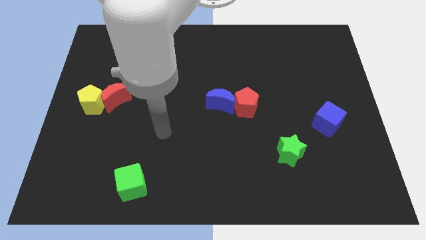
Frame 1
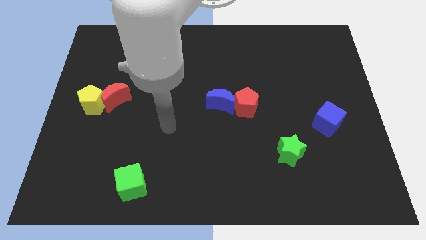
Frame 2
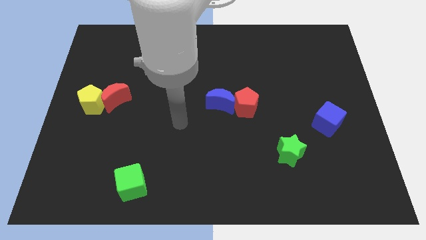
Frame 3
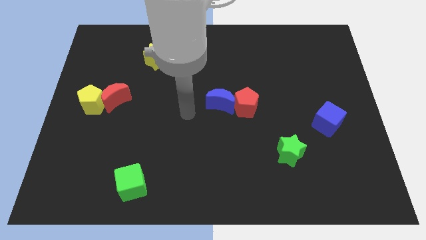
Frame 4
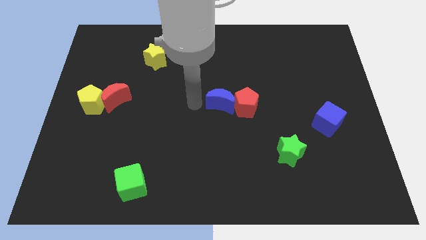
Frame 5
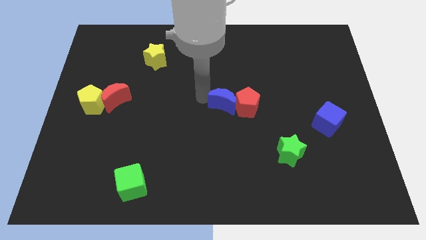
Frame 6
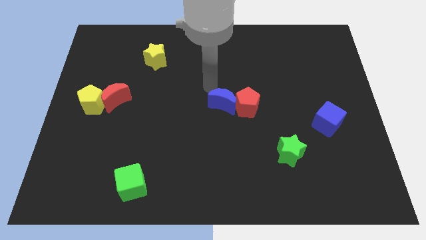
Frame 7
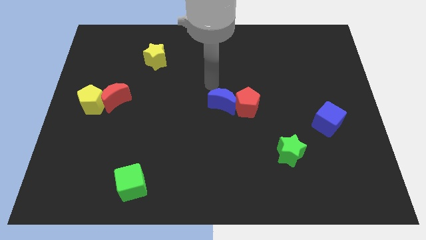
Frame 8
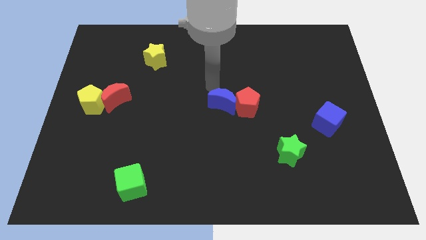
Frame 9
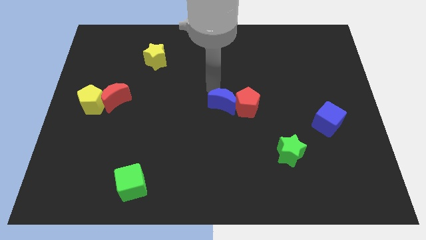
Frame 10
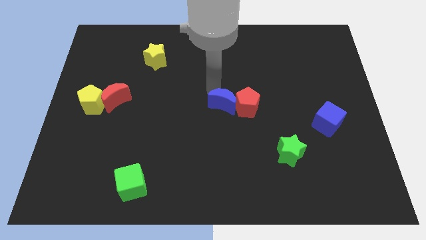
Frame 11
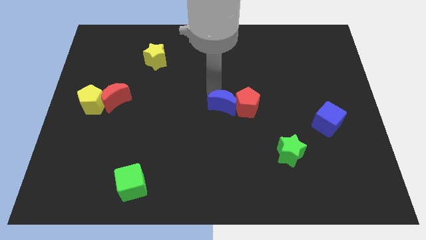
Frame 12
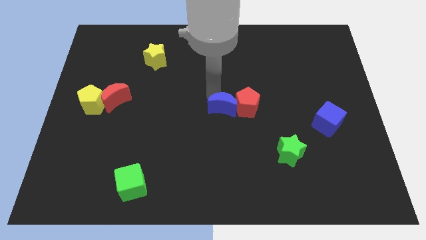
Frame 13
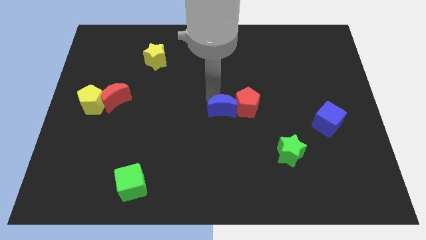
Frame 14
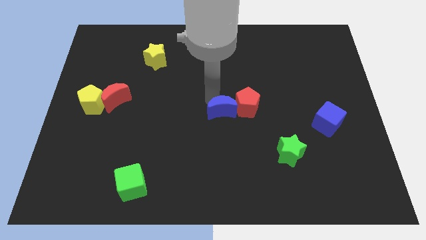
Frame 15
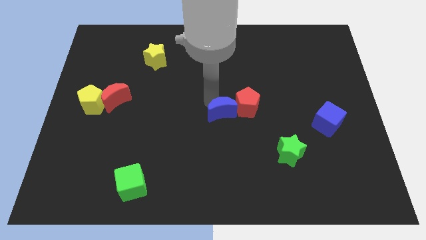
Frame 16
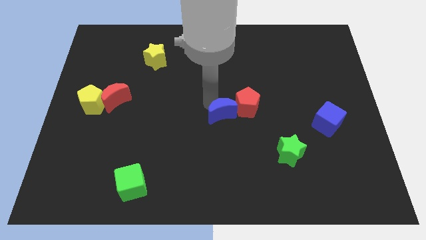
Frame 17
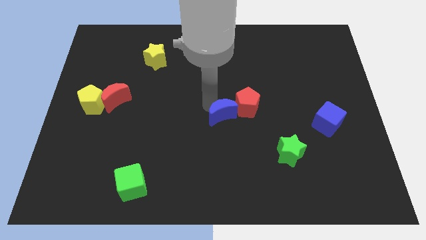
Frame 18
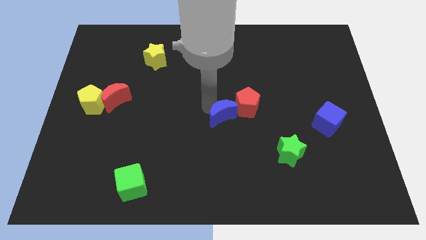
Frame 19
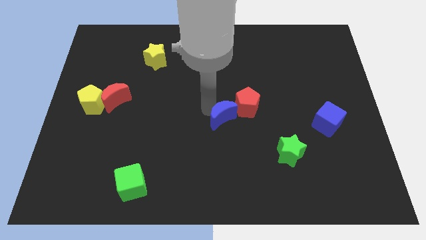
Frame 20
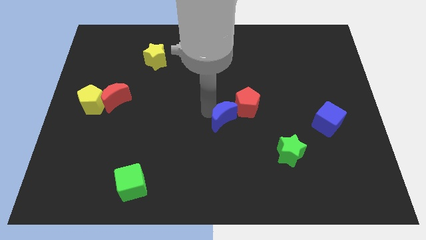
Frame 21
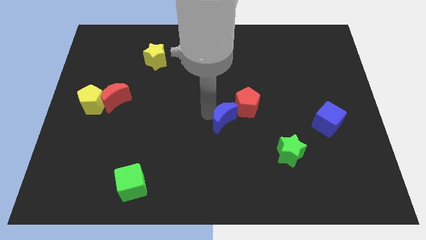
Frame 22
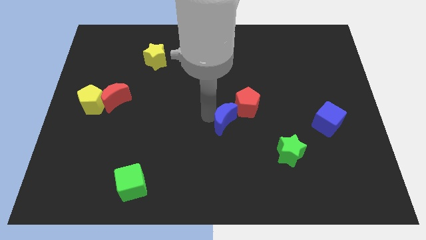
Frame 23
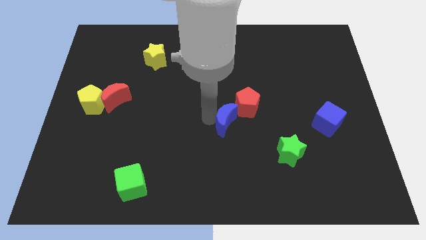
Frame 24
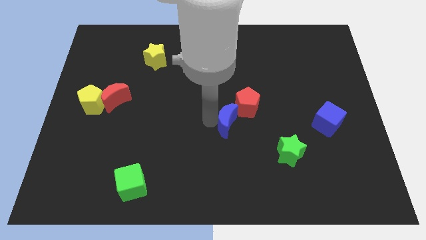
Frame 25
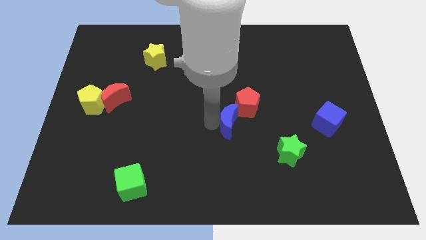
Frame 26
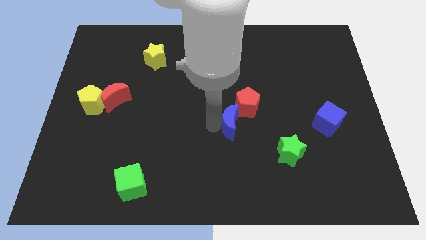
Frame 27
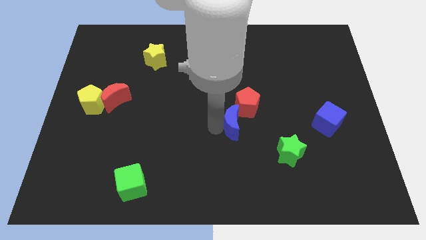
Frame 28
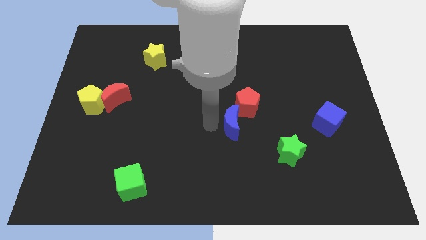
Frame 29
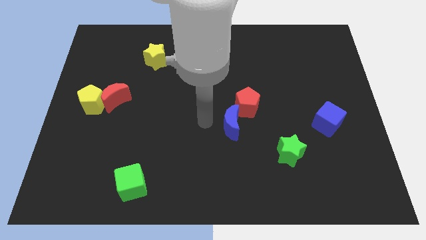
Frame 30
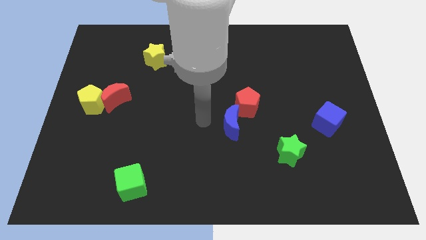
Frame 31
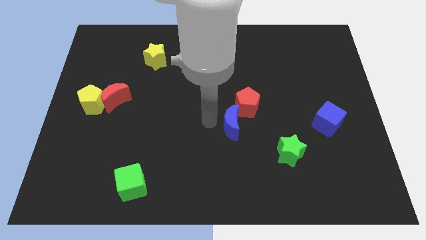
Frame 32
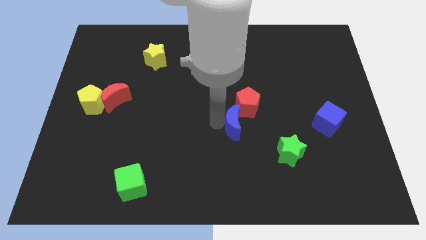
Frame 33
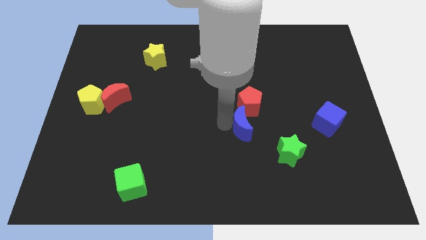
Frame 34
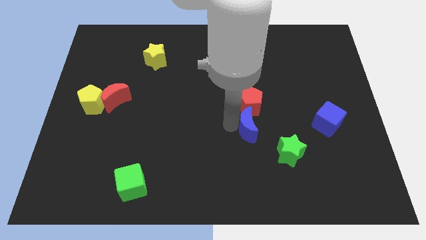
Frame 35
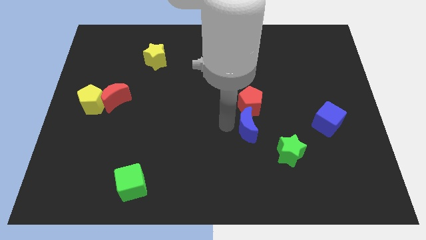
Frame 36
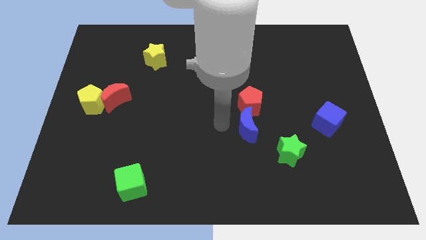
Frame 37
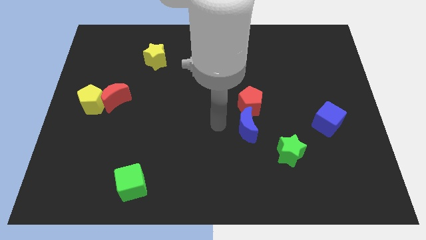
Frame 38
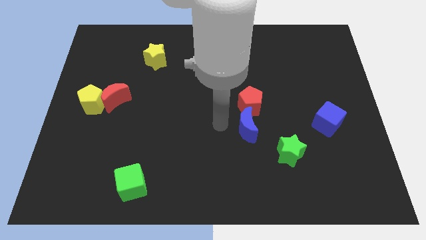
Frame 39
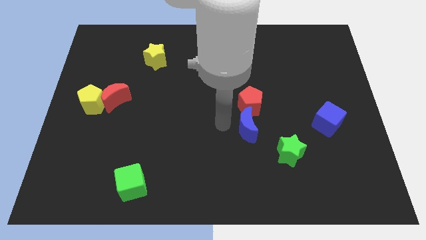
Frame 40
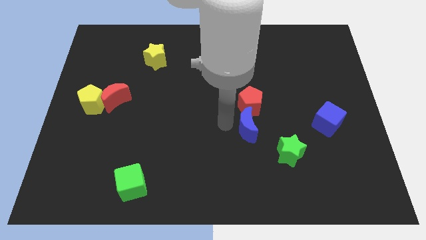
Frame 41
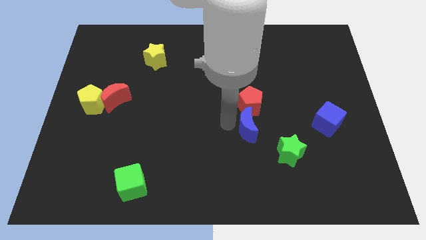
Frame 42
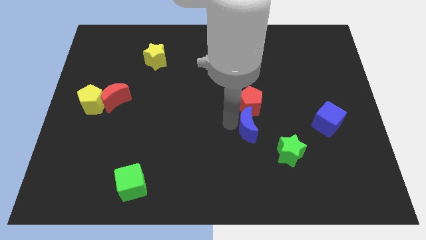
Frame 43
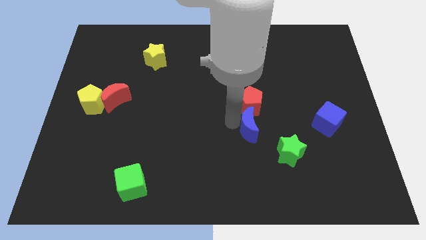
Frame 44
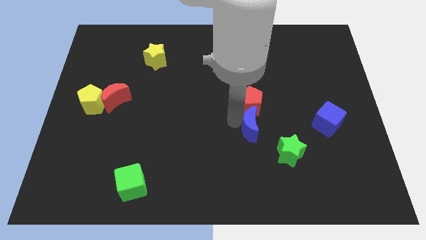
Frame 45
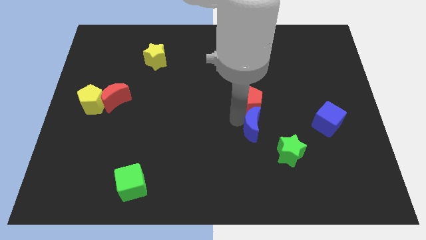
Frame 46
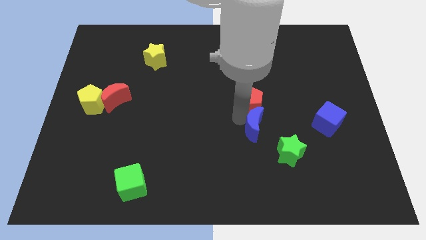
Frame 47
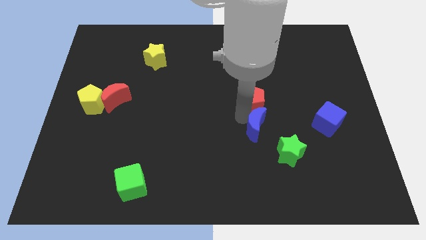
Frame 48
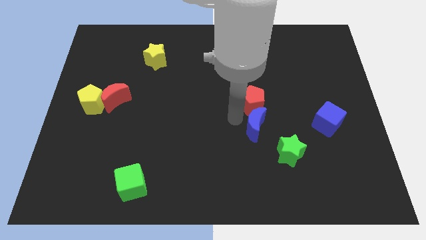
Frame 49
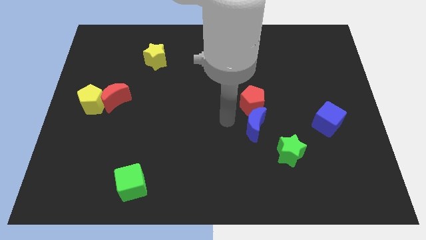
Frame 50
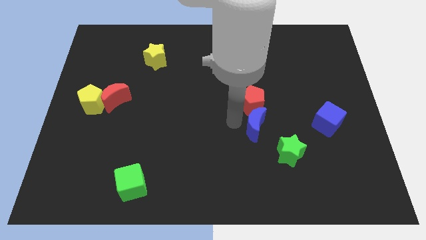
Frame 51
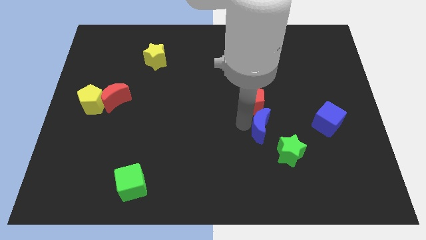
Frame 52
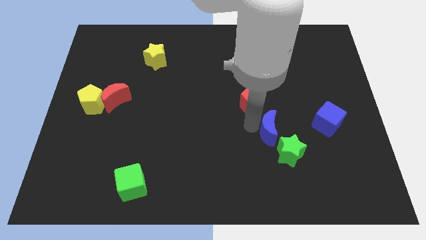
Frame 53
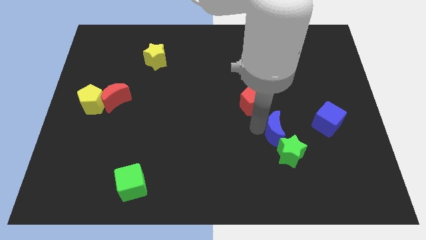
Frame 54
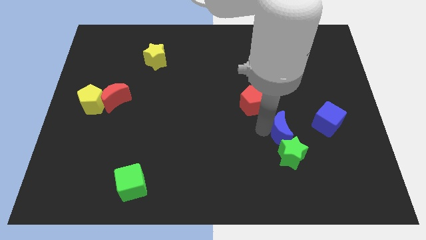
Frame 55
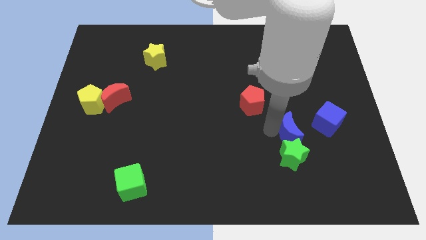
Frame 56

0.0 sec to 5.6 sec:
put the blue moon to the bottom left of the blue cube

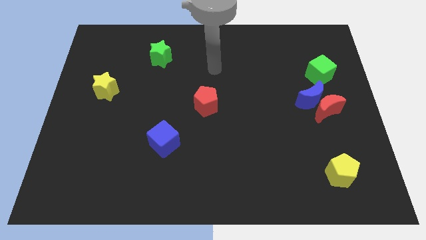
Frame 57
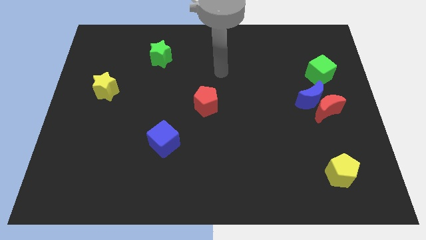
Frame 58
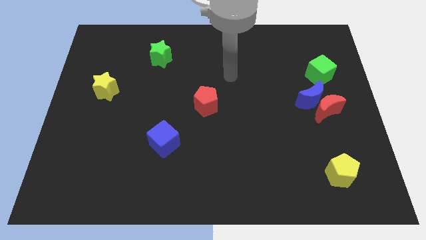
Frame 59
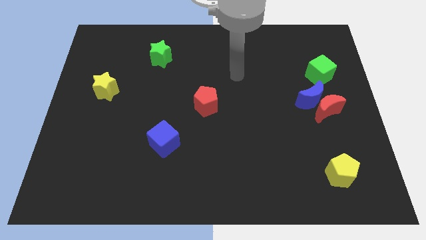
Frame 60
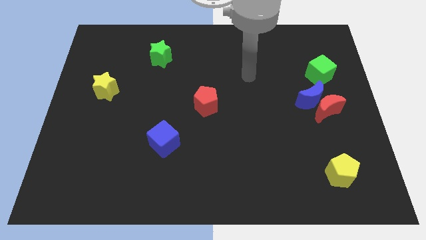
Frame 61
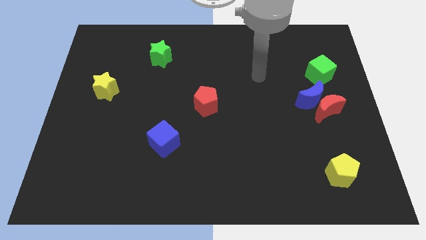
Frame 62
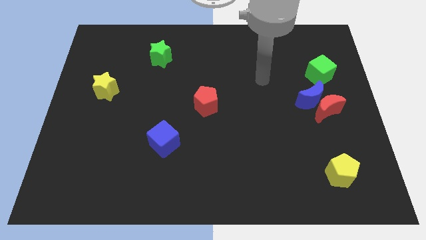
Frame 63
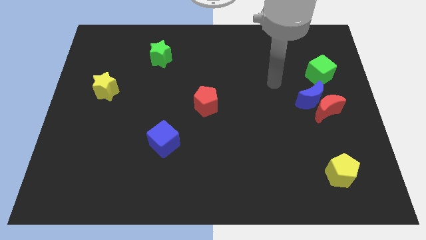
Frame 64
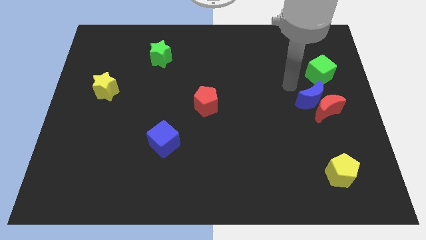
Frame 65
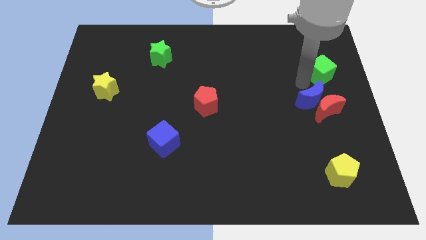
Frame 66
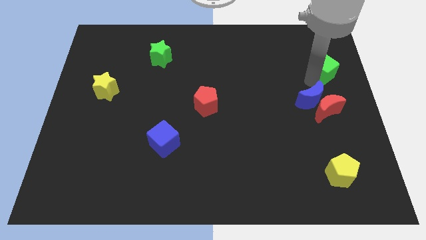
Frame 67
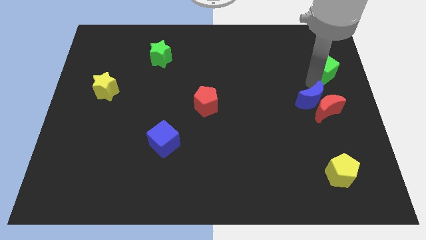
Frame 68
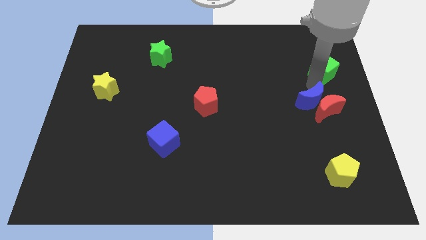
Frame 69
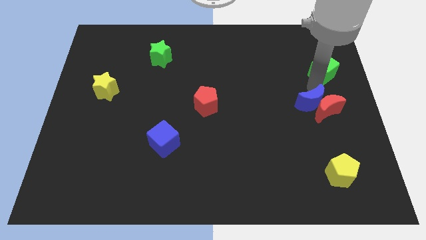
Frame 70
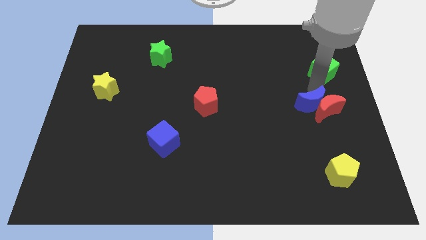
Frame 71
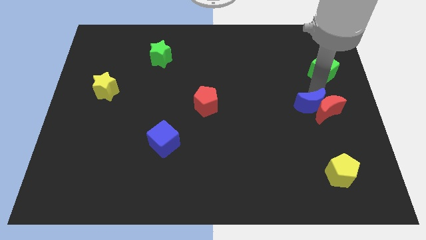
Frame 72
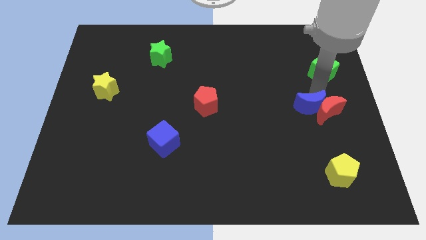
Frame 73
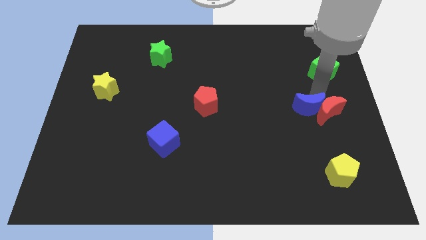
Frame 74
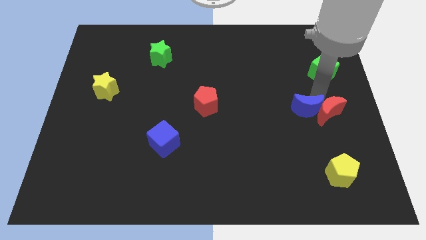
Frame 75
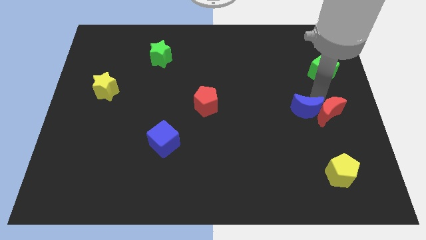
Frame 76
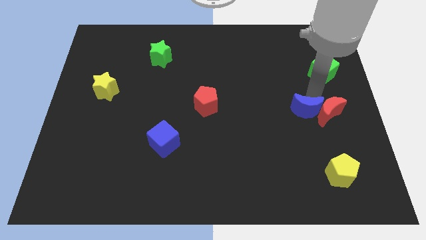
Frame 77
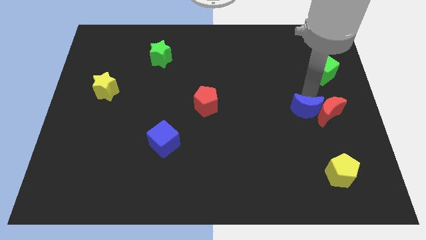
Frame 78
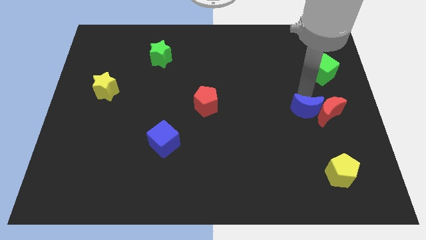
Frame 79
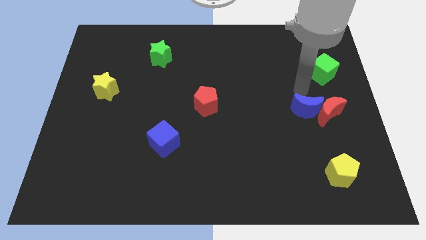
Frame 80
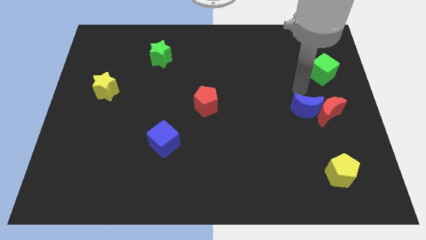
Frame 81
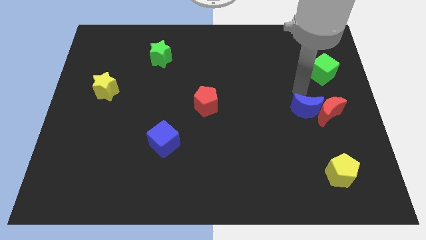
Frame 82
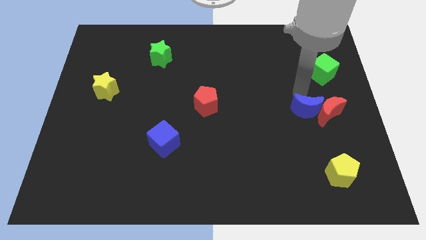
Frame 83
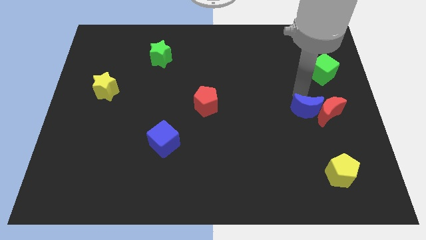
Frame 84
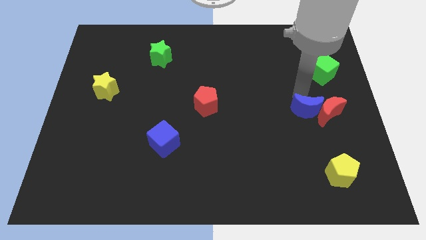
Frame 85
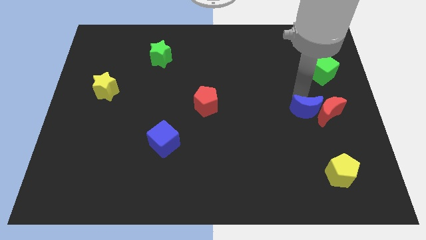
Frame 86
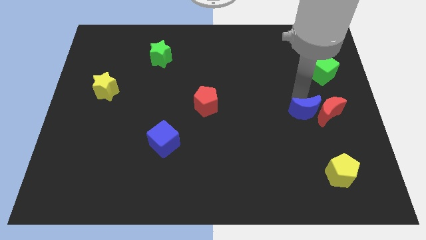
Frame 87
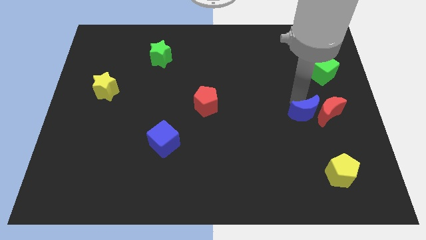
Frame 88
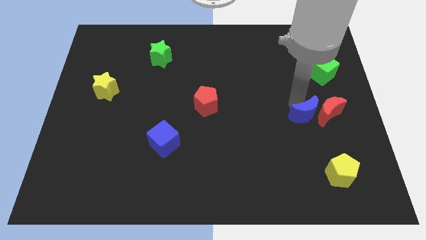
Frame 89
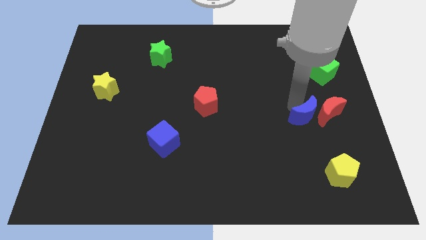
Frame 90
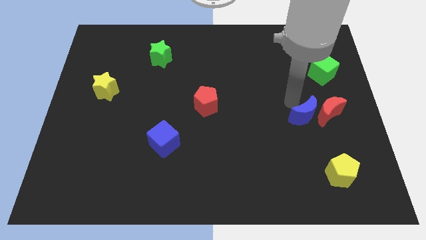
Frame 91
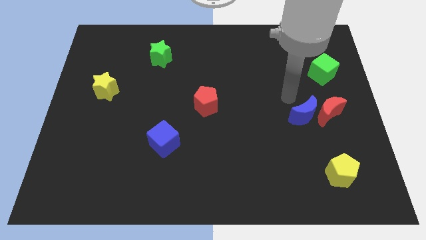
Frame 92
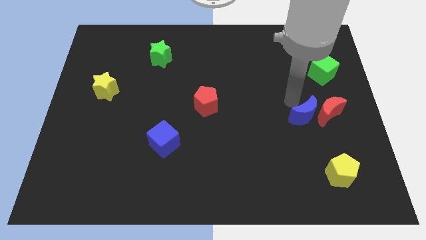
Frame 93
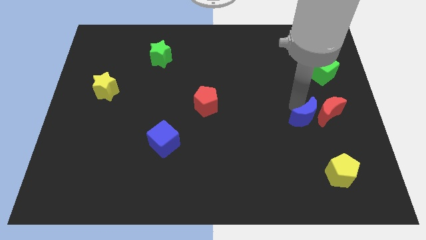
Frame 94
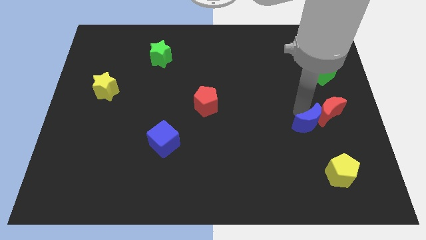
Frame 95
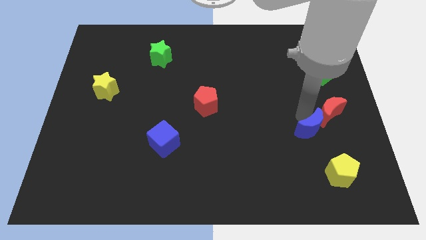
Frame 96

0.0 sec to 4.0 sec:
move the blue moon below the red moon
